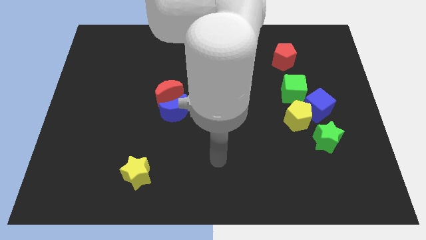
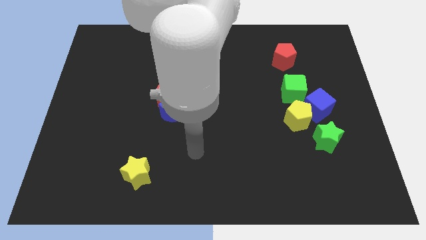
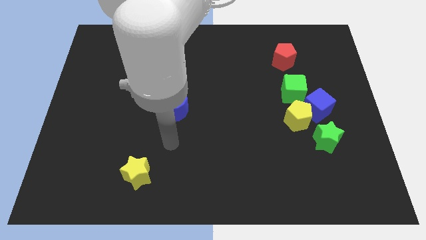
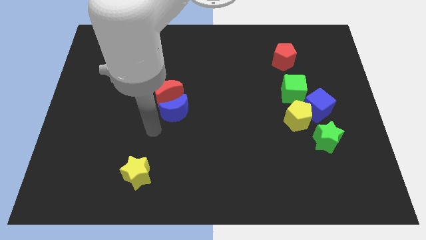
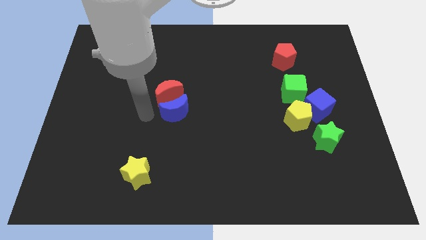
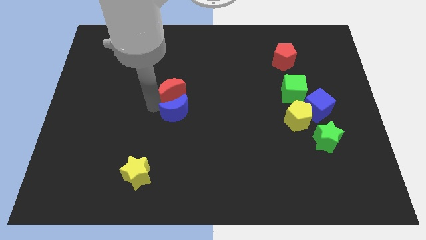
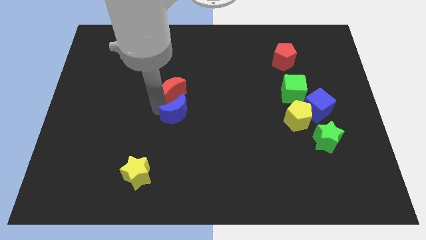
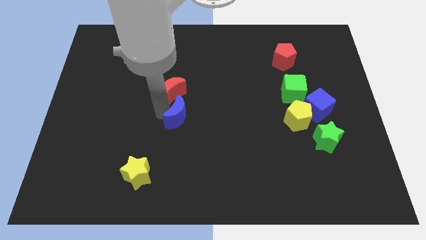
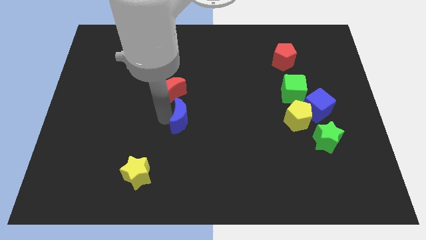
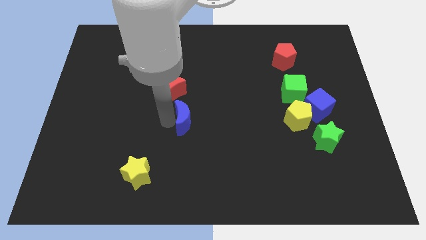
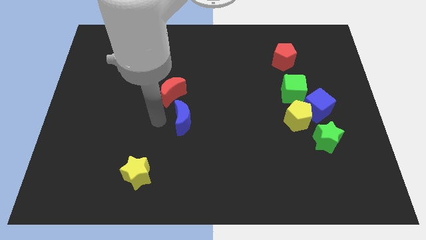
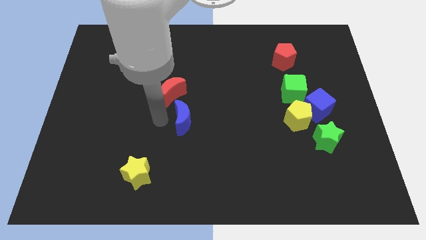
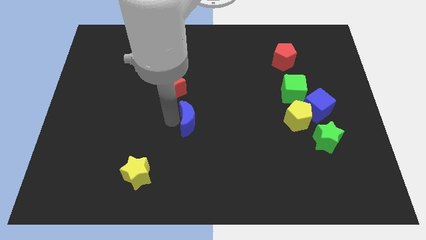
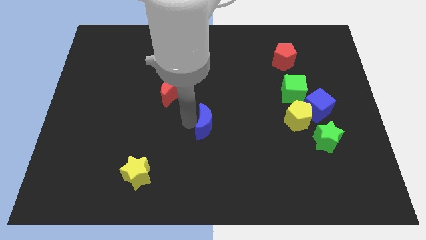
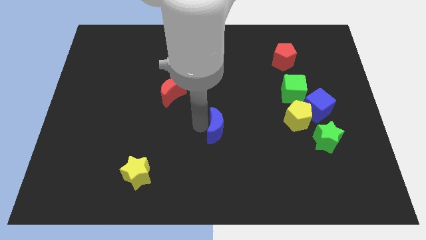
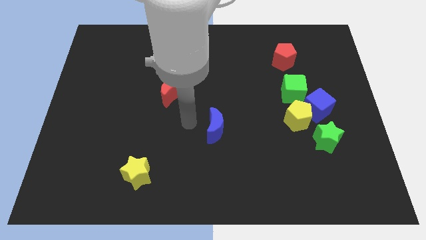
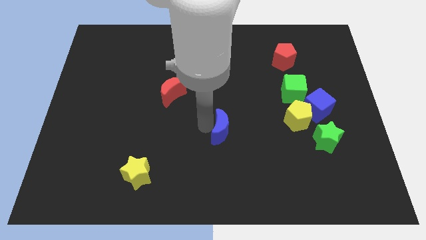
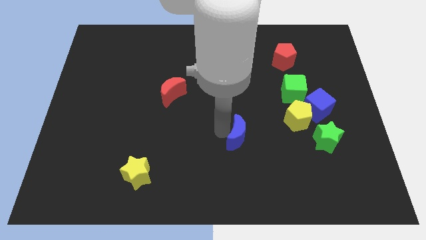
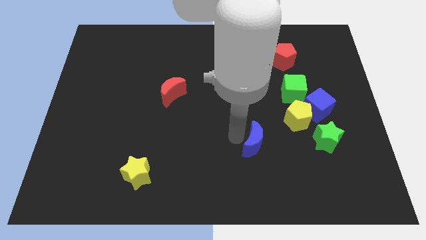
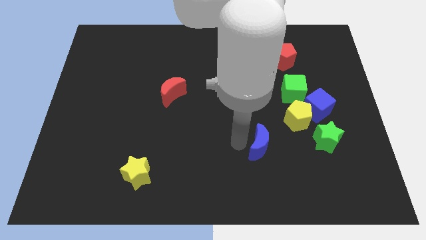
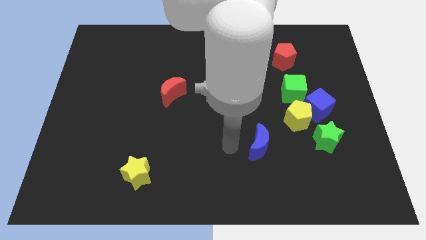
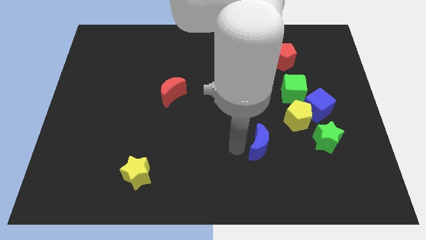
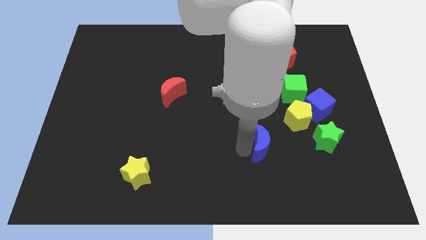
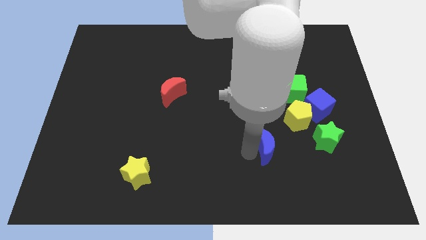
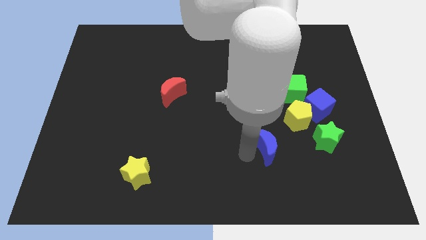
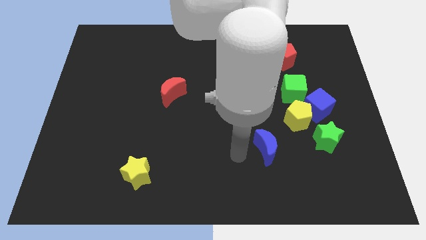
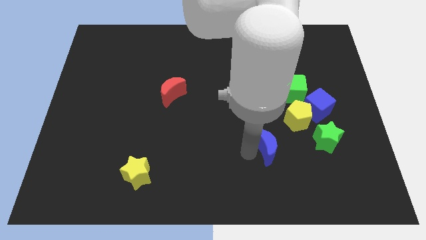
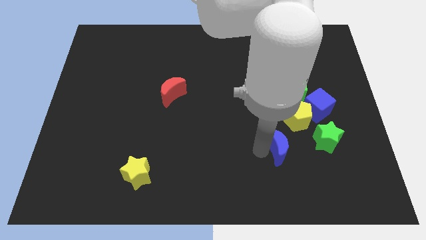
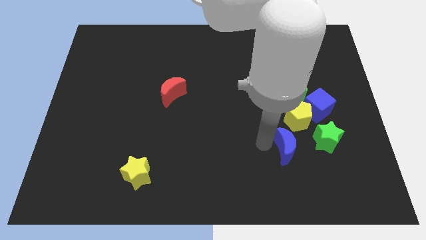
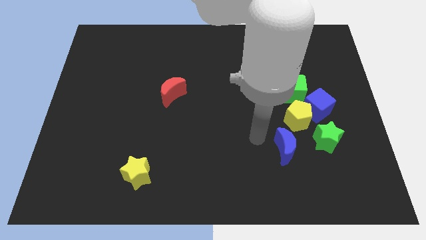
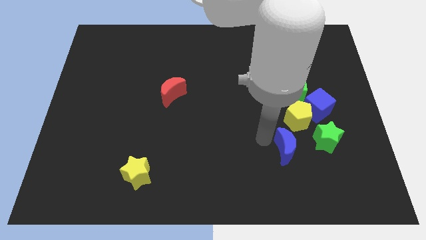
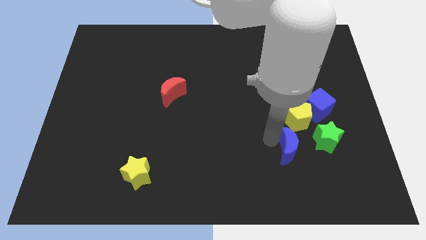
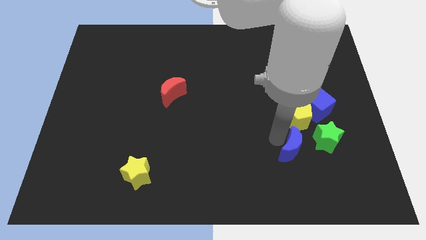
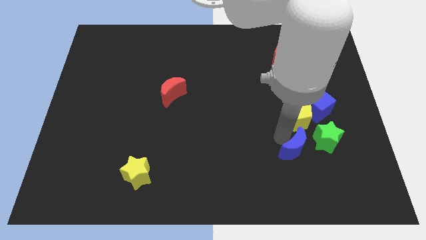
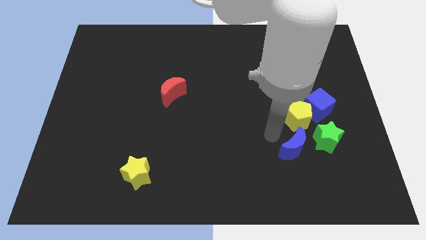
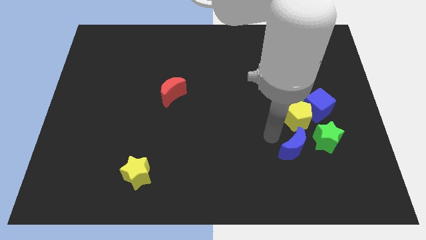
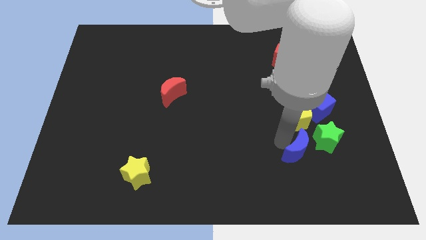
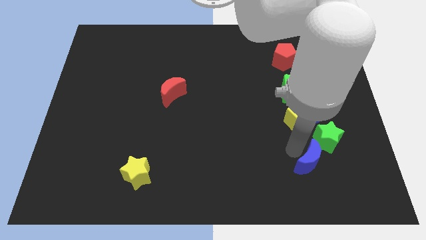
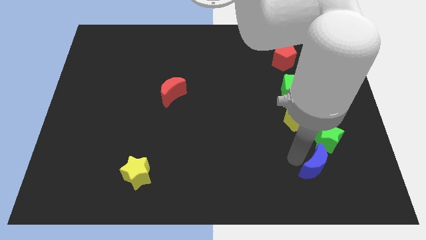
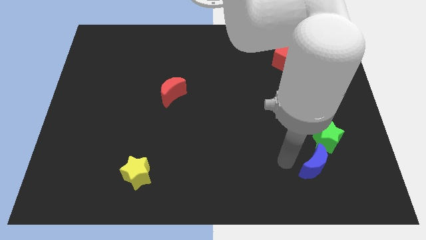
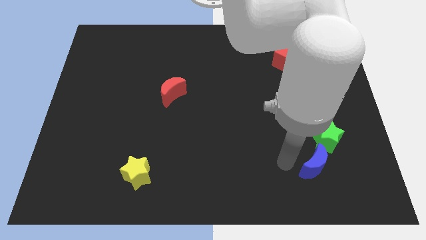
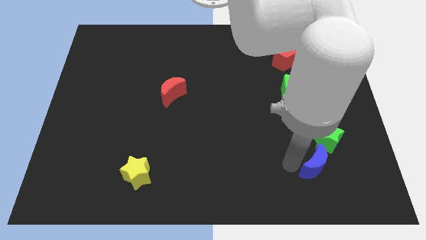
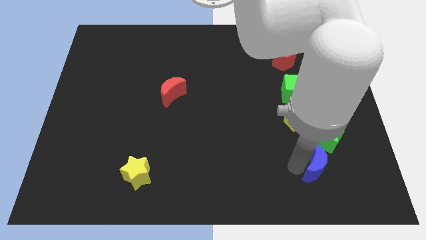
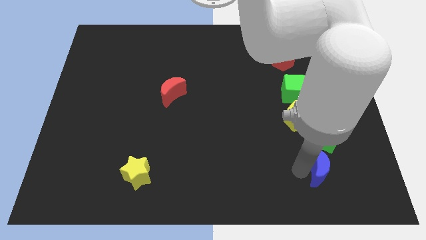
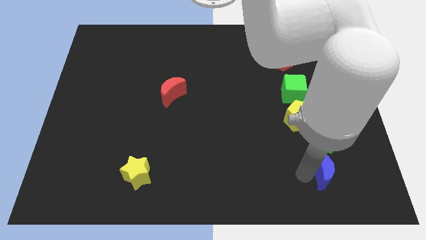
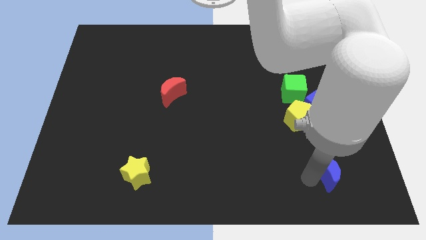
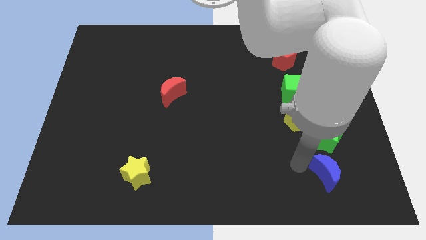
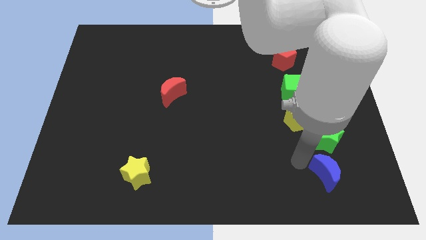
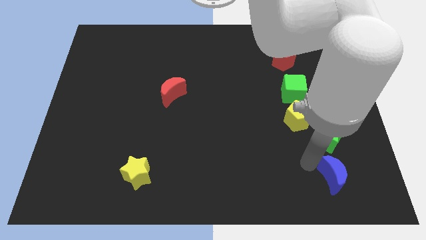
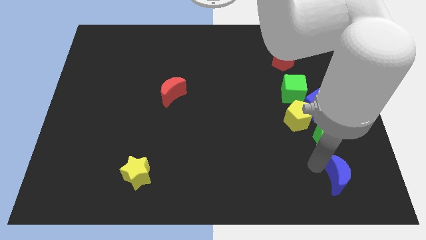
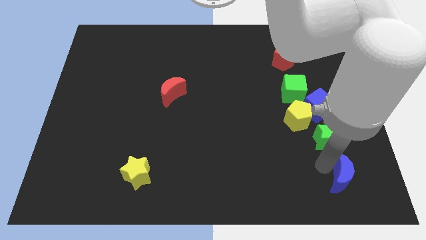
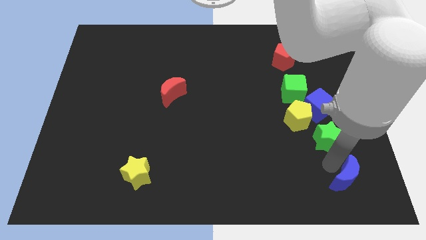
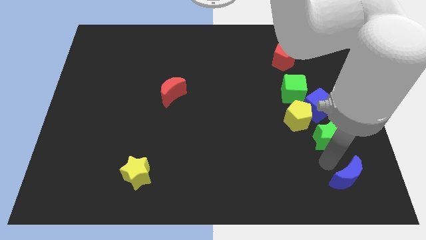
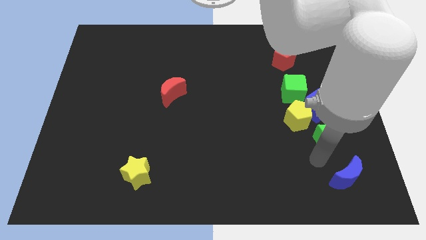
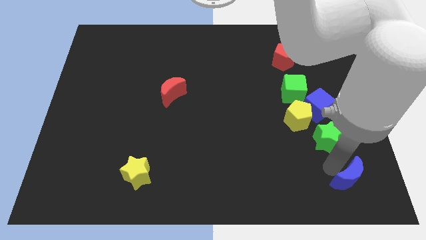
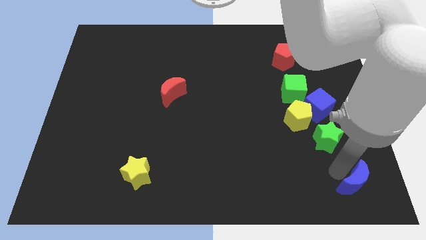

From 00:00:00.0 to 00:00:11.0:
move the blue moon to the lower right corner
